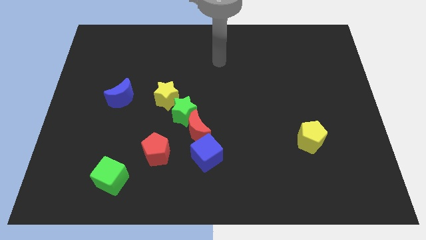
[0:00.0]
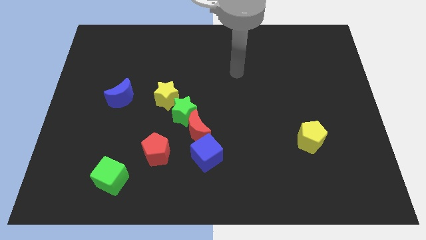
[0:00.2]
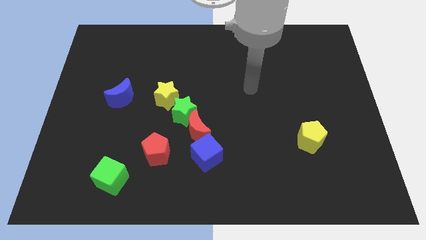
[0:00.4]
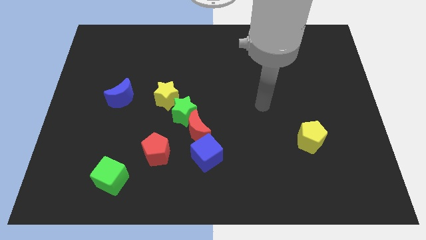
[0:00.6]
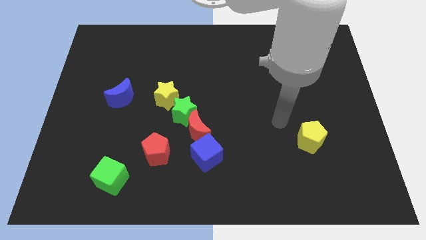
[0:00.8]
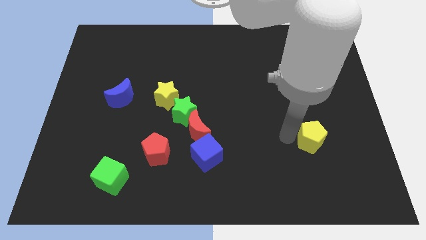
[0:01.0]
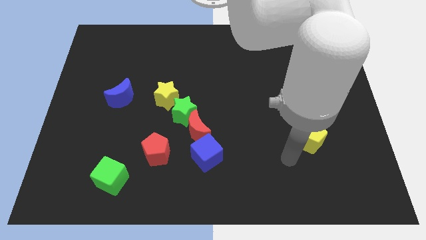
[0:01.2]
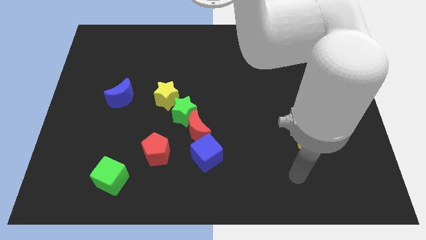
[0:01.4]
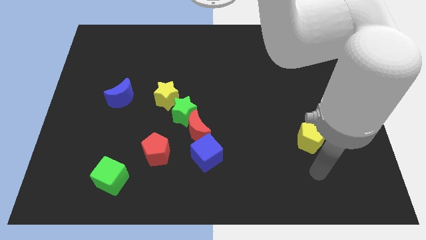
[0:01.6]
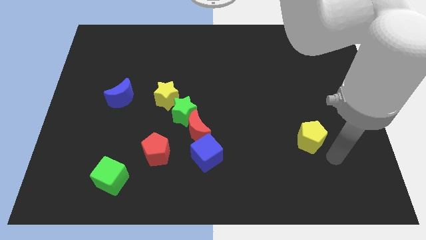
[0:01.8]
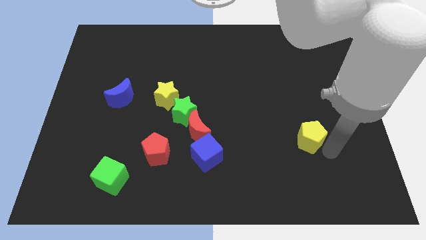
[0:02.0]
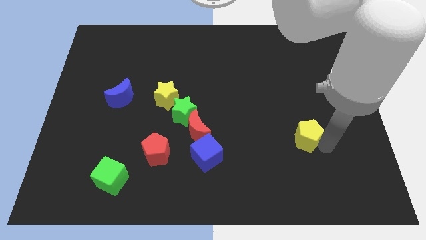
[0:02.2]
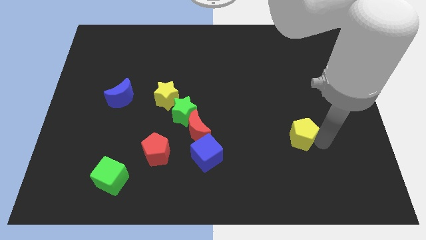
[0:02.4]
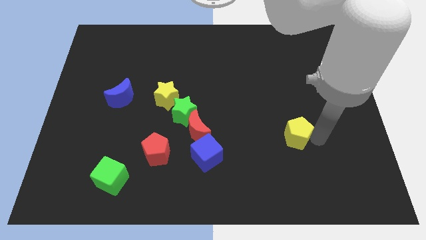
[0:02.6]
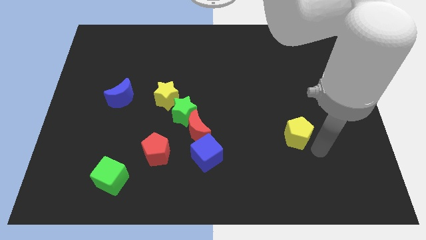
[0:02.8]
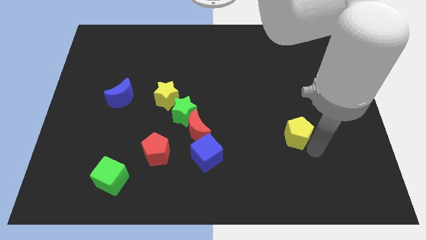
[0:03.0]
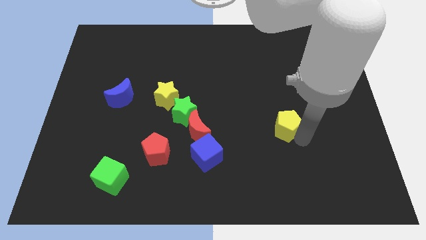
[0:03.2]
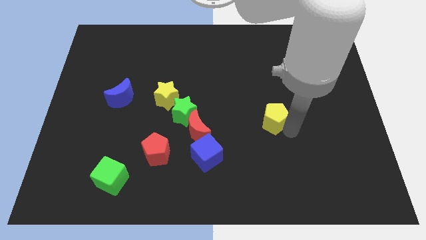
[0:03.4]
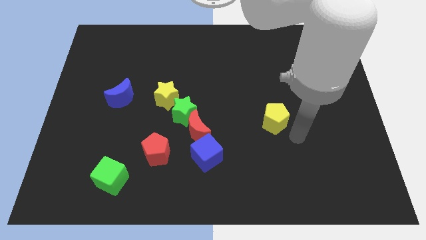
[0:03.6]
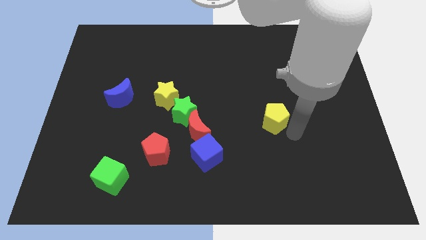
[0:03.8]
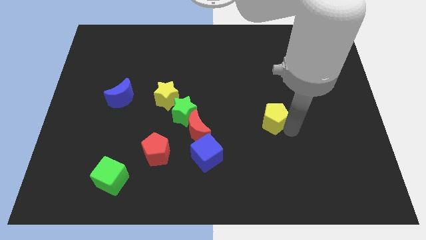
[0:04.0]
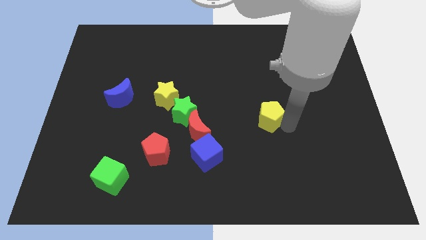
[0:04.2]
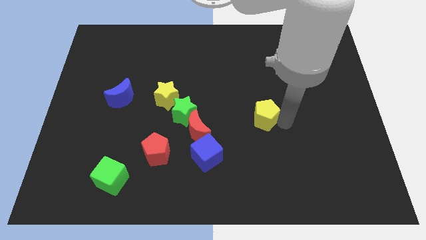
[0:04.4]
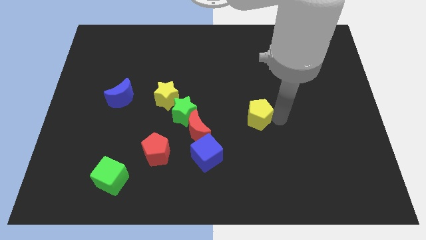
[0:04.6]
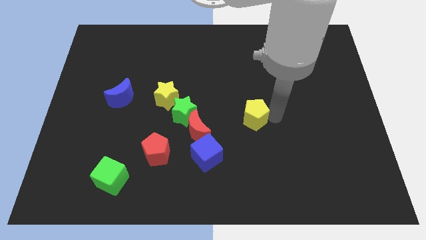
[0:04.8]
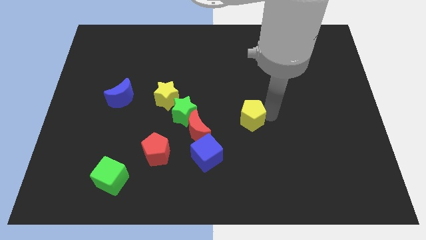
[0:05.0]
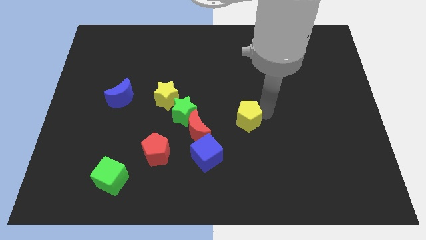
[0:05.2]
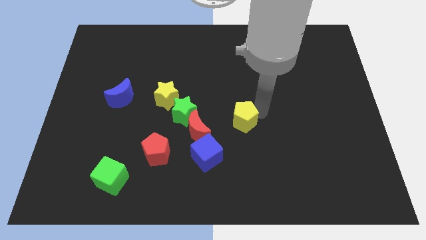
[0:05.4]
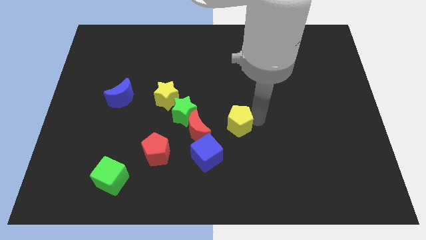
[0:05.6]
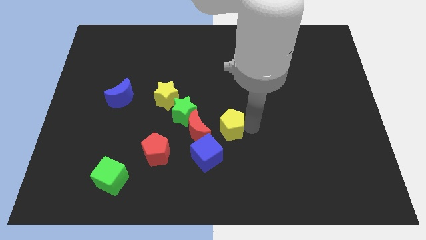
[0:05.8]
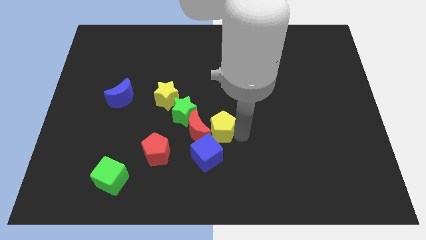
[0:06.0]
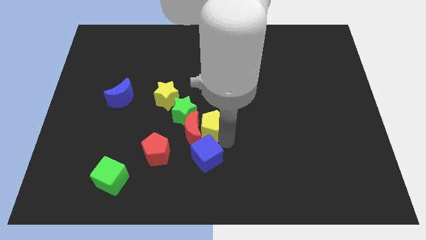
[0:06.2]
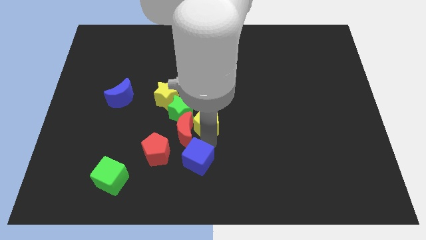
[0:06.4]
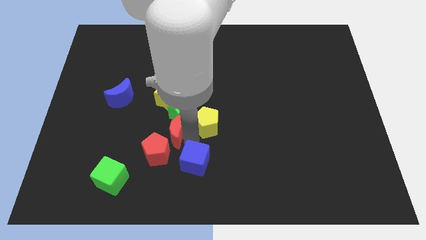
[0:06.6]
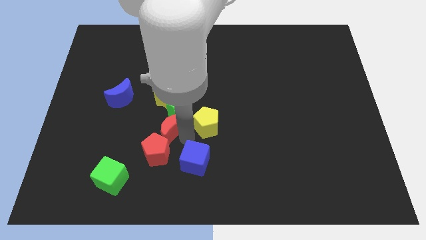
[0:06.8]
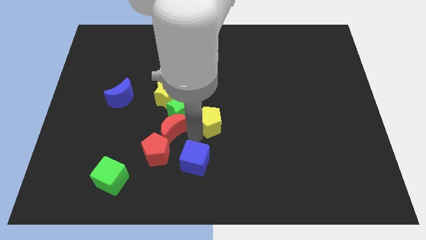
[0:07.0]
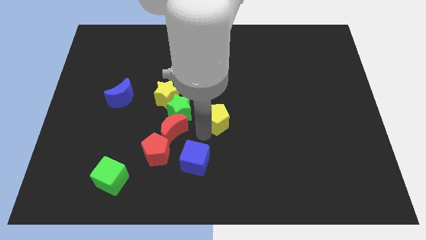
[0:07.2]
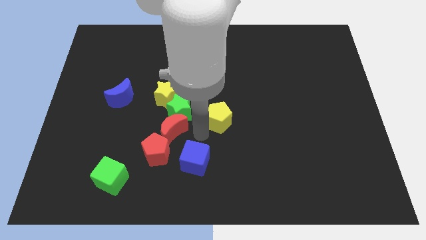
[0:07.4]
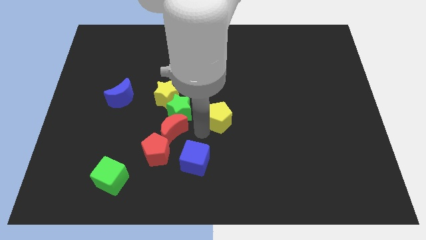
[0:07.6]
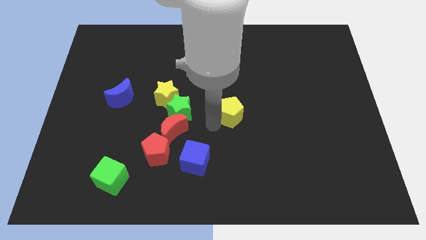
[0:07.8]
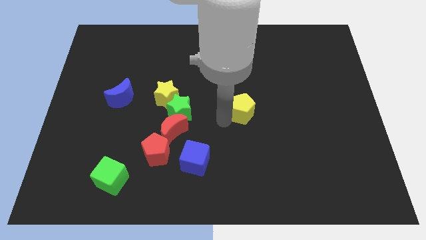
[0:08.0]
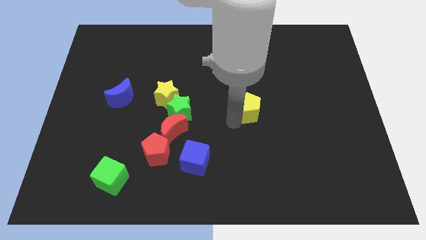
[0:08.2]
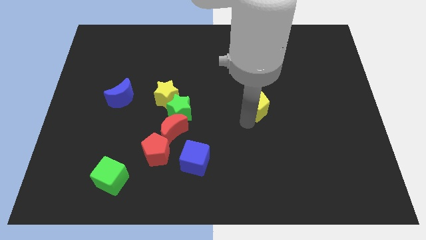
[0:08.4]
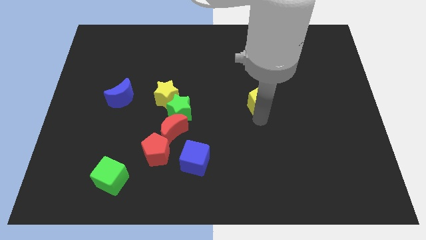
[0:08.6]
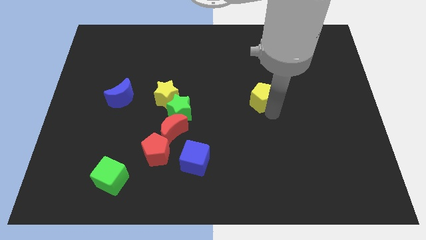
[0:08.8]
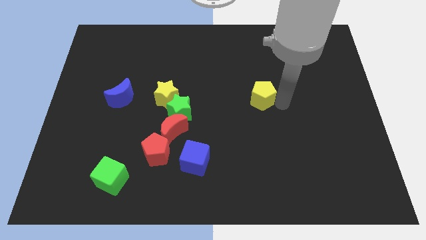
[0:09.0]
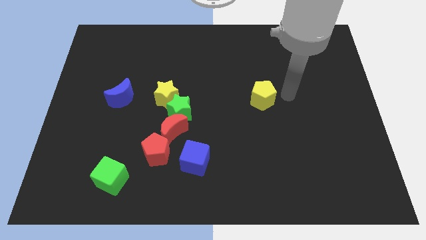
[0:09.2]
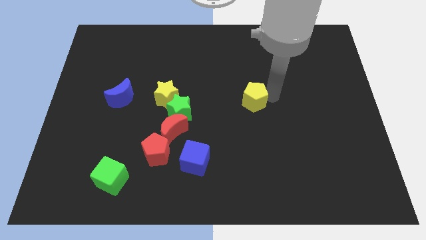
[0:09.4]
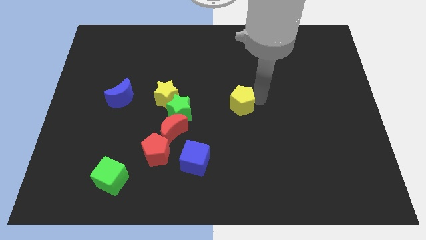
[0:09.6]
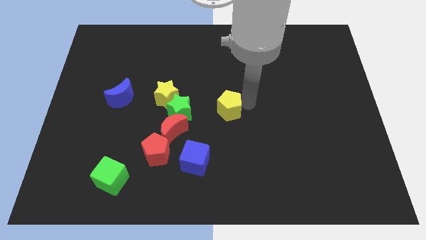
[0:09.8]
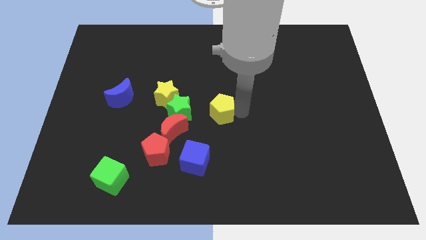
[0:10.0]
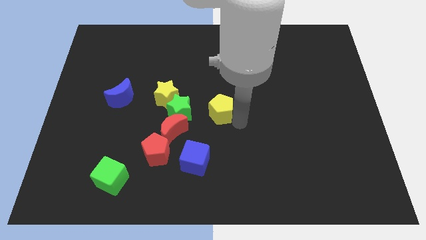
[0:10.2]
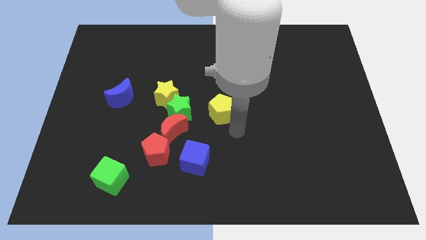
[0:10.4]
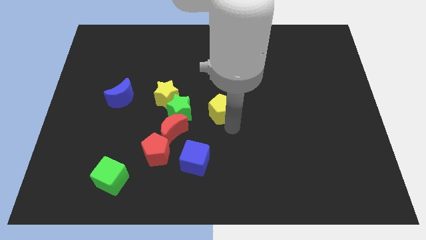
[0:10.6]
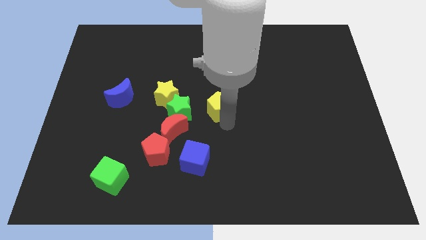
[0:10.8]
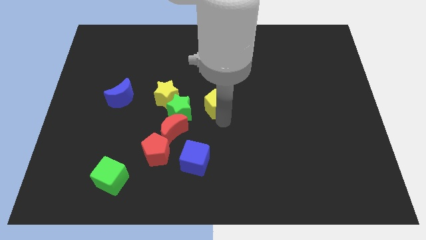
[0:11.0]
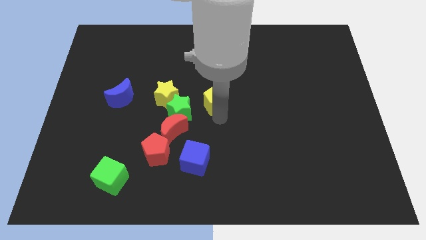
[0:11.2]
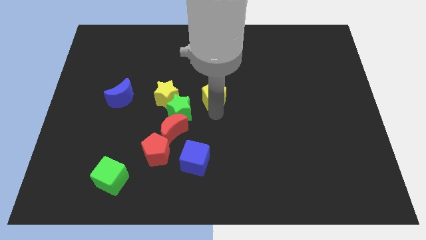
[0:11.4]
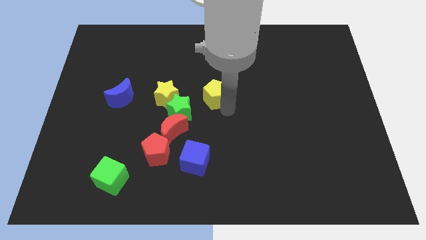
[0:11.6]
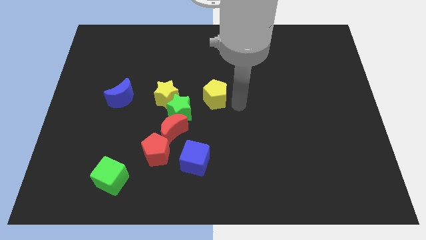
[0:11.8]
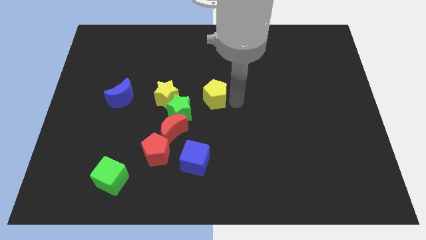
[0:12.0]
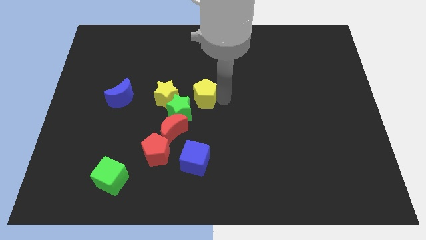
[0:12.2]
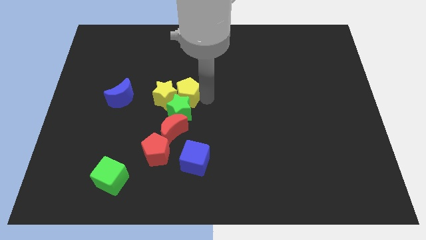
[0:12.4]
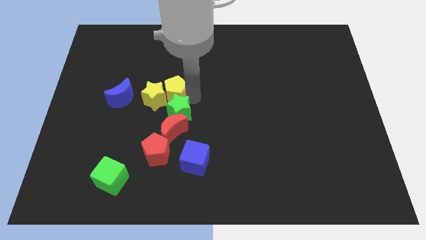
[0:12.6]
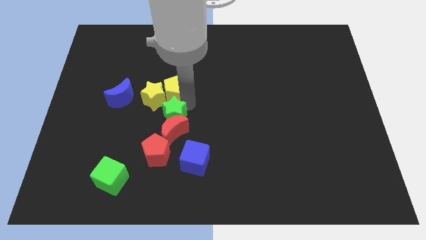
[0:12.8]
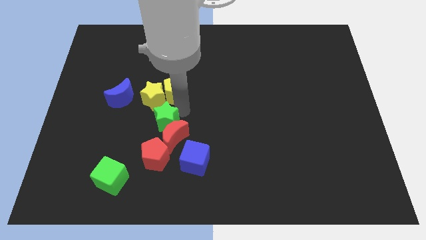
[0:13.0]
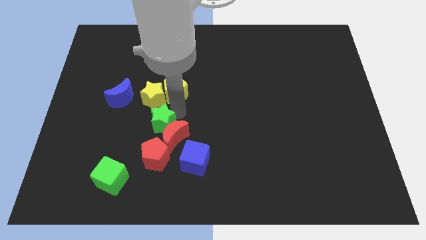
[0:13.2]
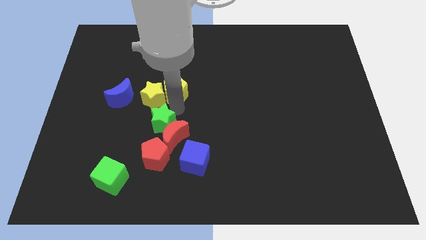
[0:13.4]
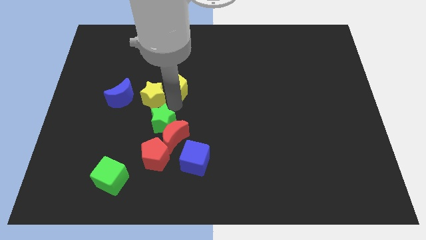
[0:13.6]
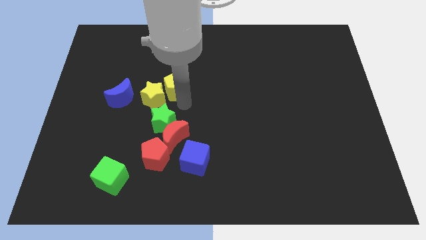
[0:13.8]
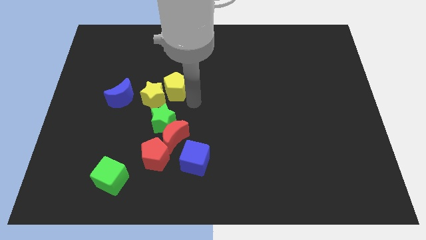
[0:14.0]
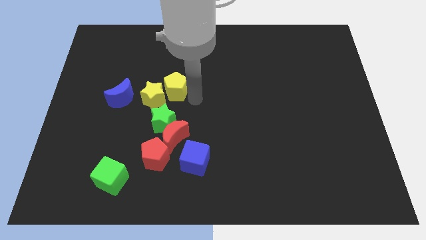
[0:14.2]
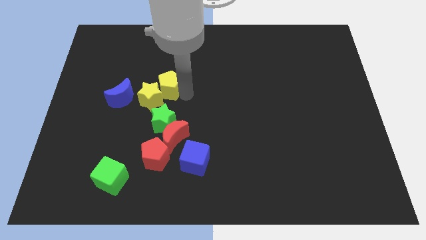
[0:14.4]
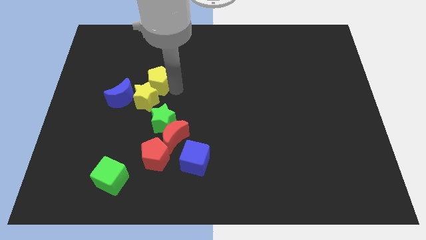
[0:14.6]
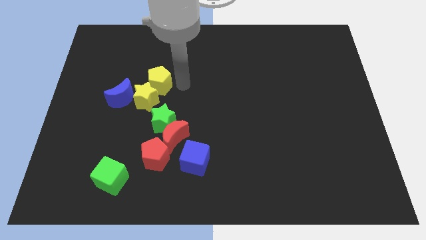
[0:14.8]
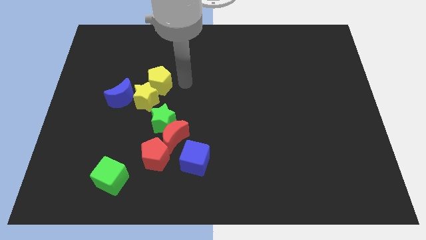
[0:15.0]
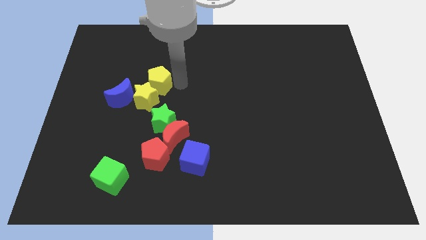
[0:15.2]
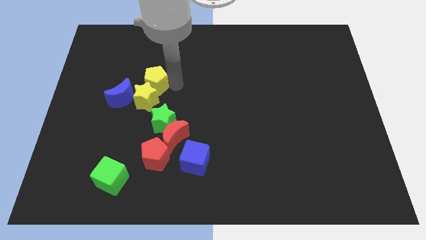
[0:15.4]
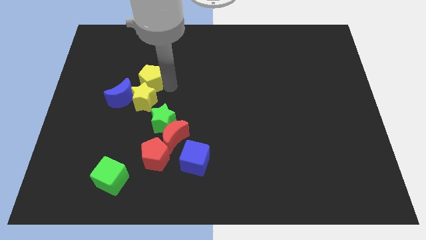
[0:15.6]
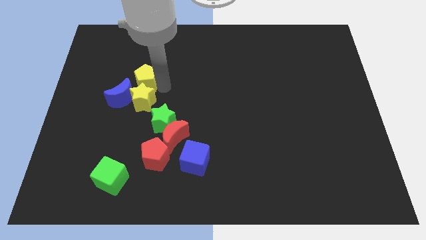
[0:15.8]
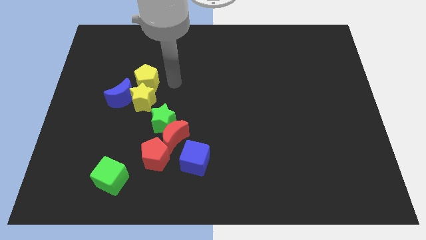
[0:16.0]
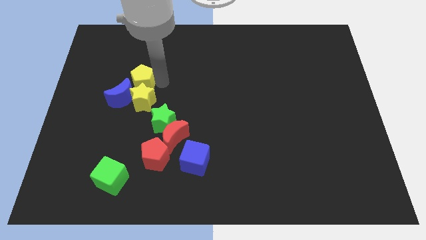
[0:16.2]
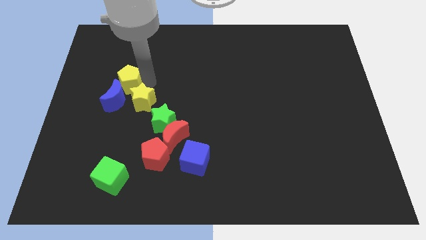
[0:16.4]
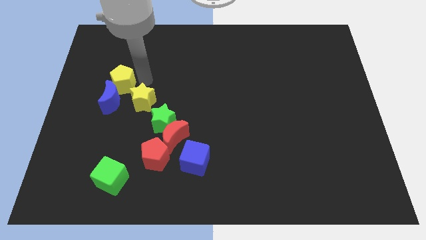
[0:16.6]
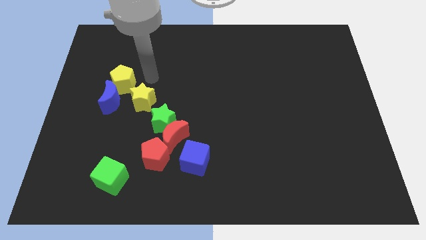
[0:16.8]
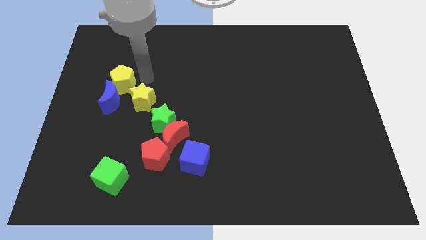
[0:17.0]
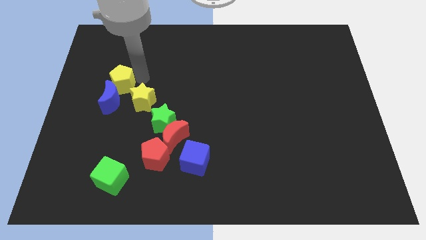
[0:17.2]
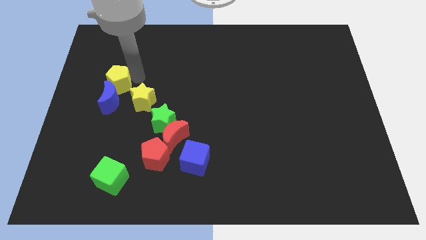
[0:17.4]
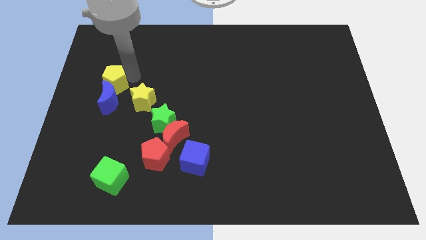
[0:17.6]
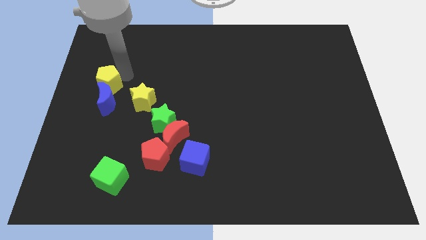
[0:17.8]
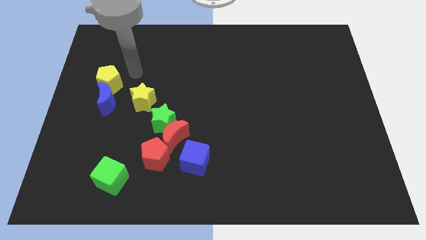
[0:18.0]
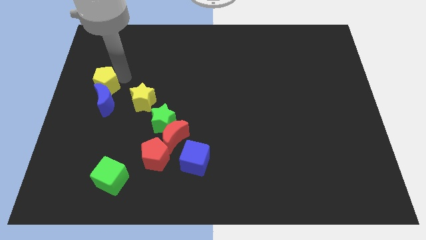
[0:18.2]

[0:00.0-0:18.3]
put the yellow pentagon to the center left
